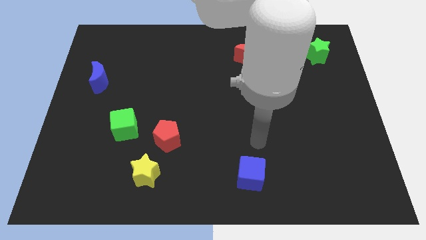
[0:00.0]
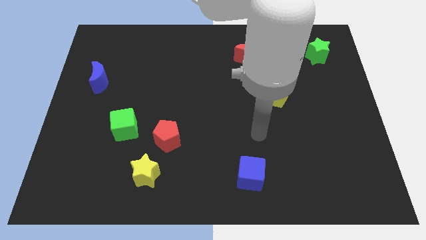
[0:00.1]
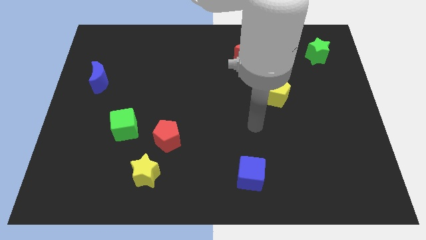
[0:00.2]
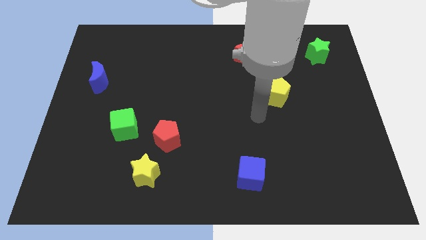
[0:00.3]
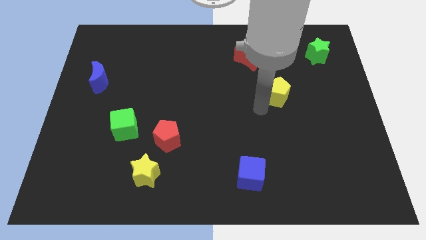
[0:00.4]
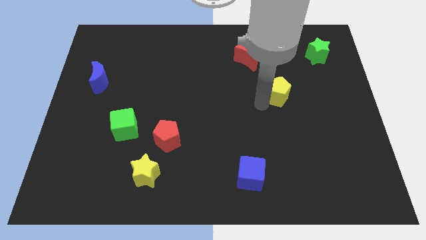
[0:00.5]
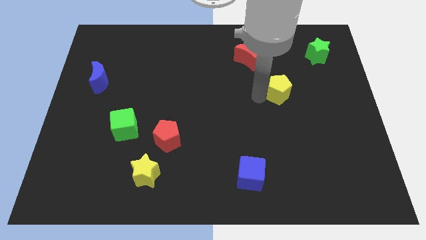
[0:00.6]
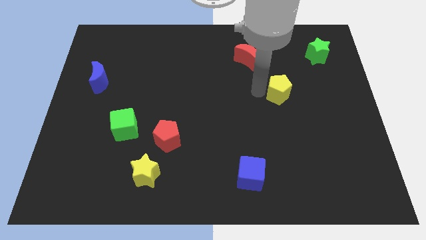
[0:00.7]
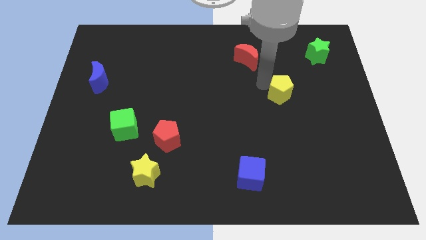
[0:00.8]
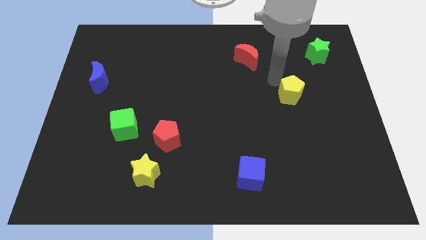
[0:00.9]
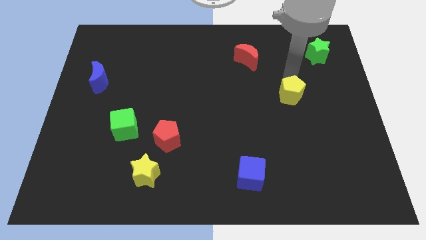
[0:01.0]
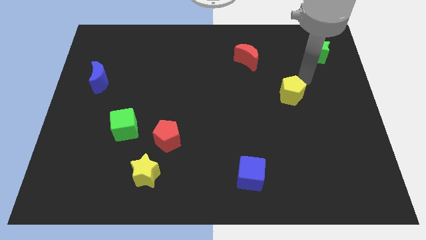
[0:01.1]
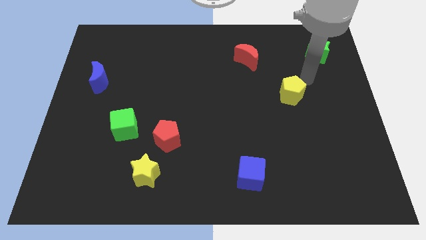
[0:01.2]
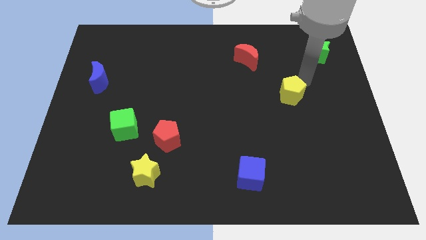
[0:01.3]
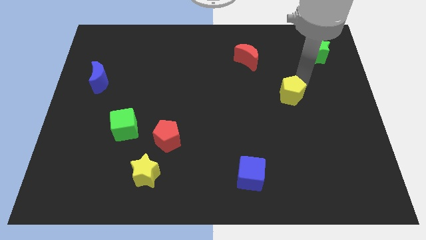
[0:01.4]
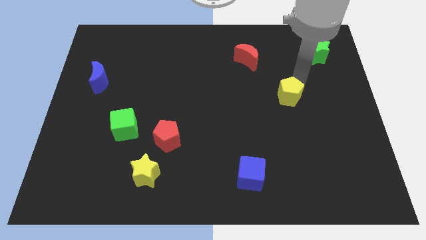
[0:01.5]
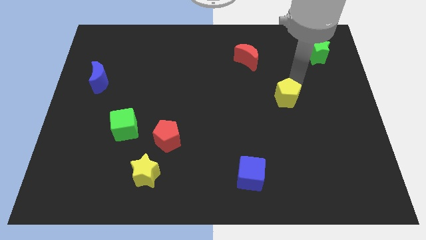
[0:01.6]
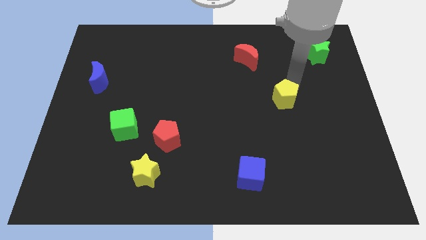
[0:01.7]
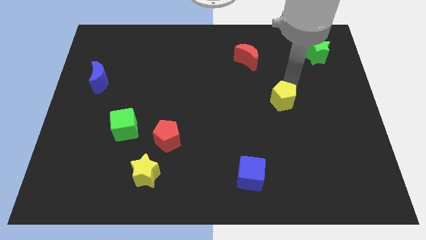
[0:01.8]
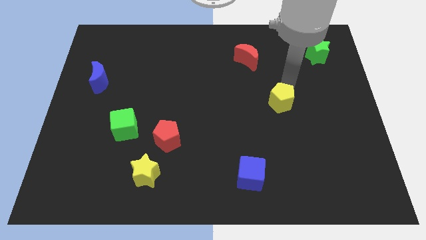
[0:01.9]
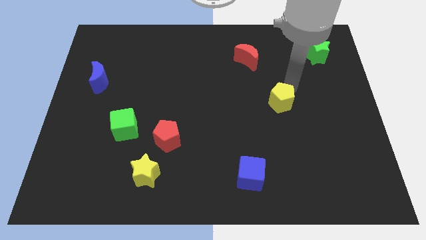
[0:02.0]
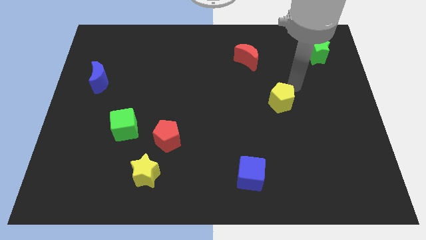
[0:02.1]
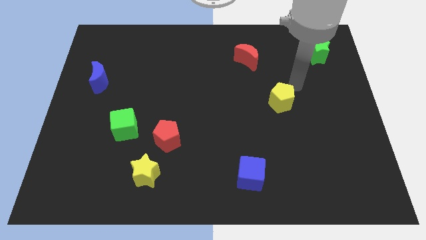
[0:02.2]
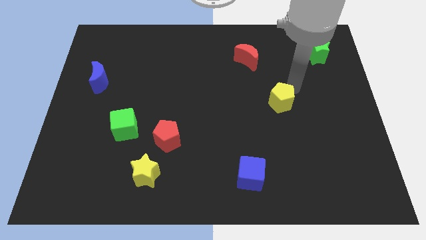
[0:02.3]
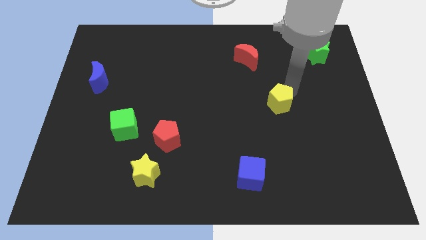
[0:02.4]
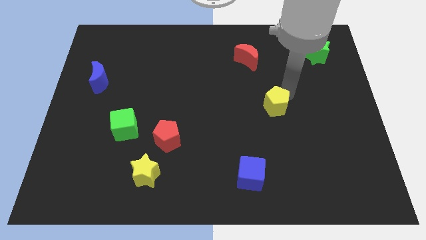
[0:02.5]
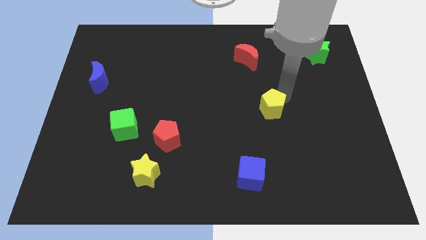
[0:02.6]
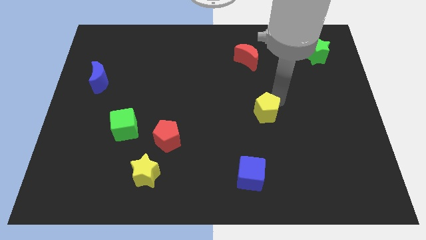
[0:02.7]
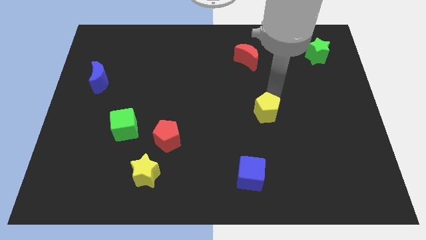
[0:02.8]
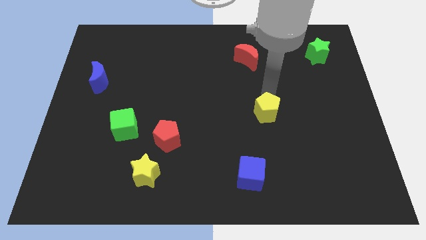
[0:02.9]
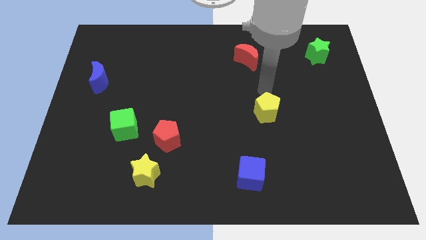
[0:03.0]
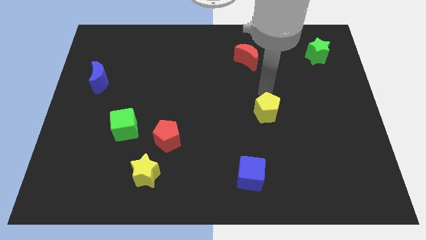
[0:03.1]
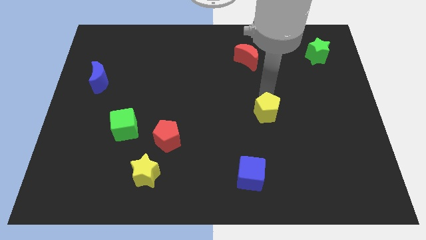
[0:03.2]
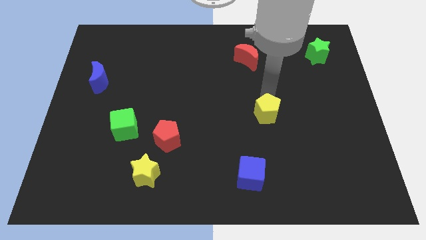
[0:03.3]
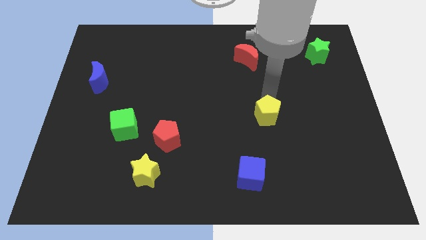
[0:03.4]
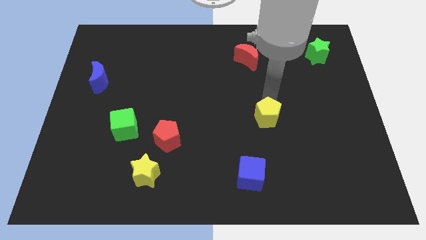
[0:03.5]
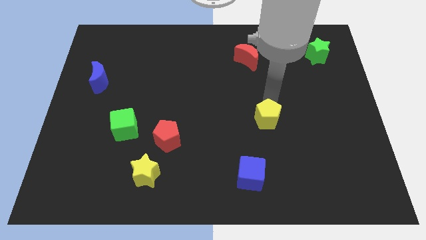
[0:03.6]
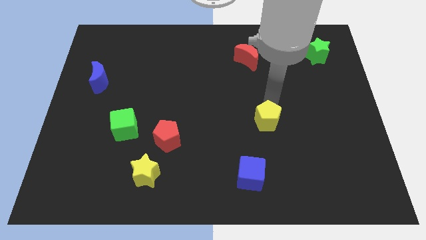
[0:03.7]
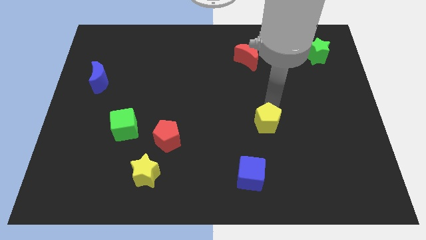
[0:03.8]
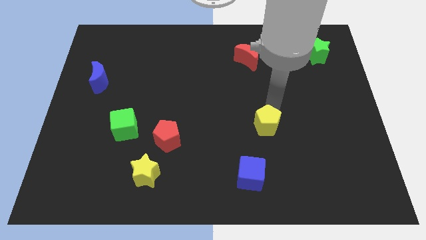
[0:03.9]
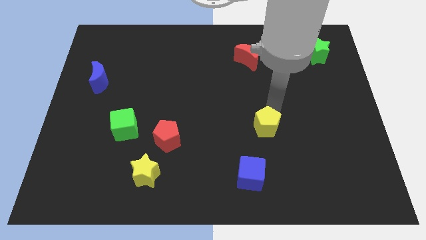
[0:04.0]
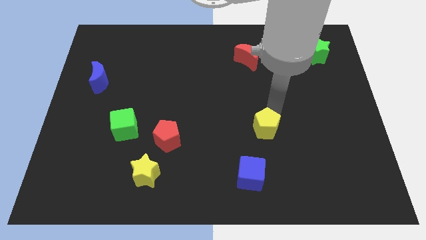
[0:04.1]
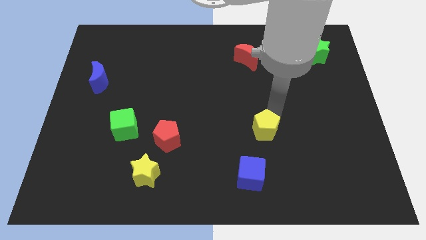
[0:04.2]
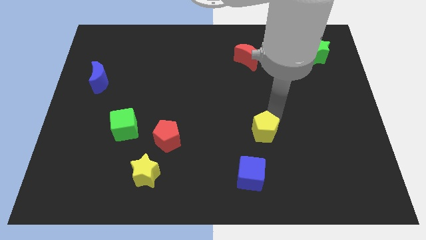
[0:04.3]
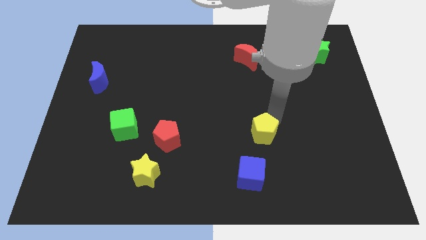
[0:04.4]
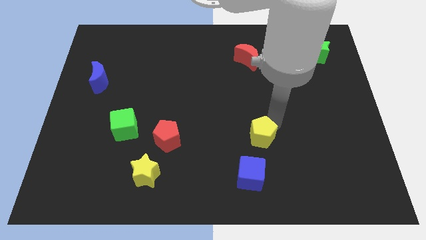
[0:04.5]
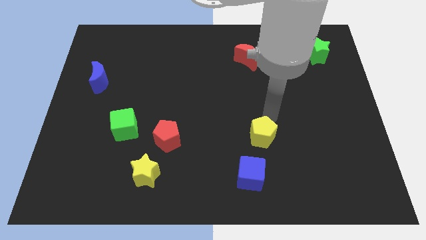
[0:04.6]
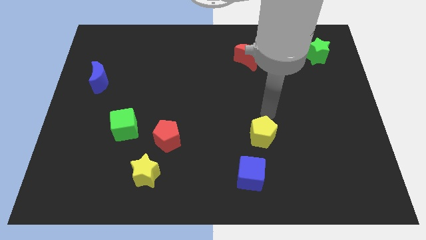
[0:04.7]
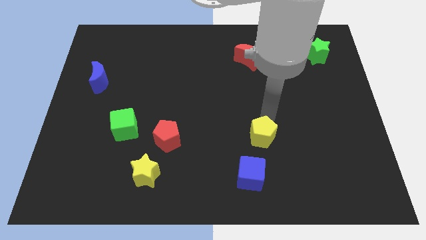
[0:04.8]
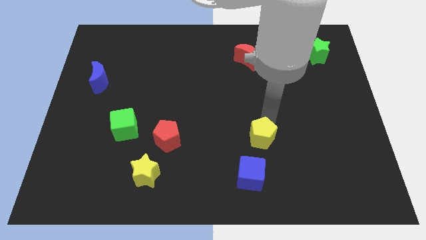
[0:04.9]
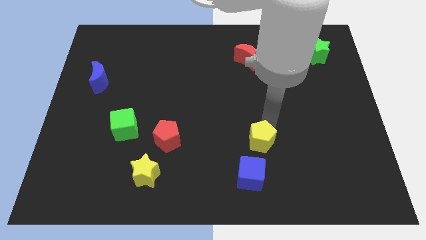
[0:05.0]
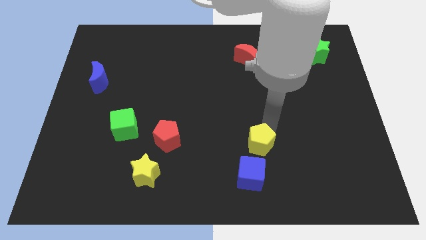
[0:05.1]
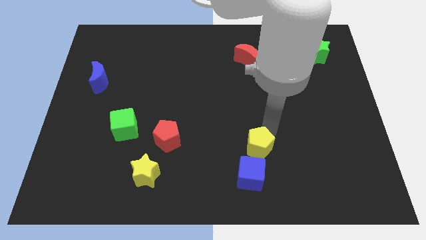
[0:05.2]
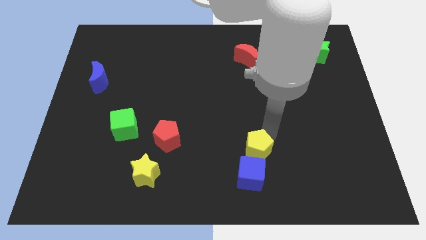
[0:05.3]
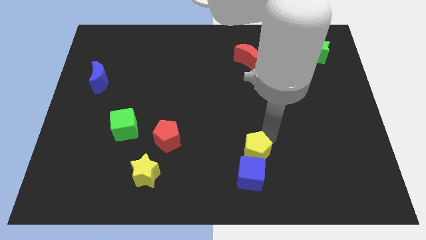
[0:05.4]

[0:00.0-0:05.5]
push the yellow pentagon to the blue cube

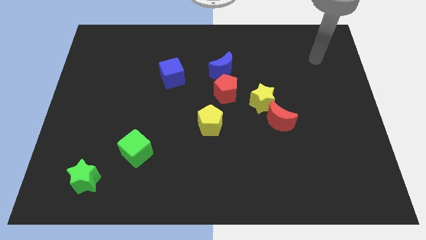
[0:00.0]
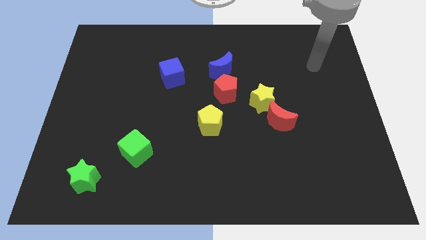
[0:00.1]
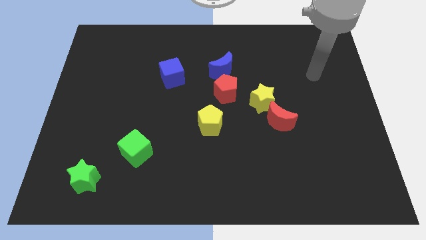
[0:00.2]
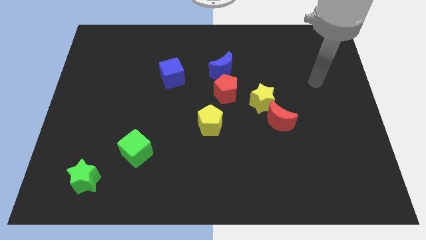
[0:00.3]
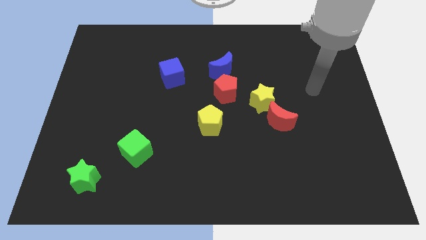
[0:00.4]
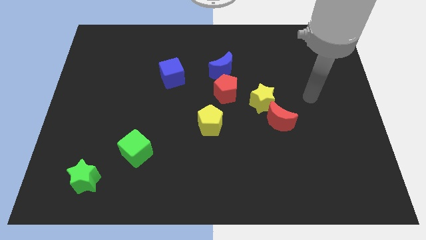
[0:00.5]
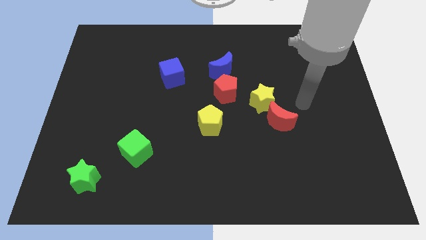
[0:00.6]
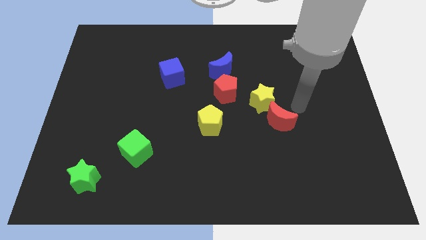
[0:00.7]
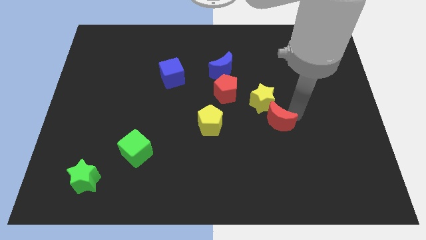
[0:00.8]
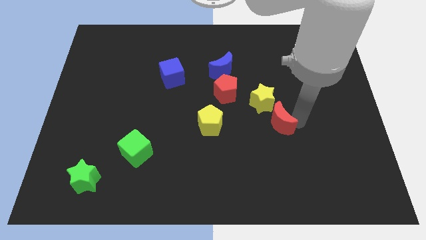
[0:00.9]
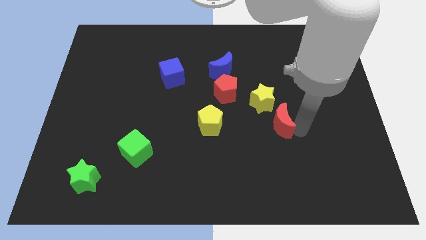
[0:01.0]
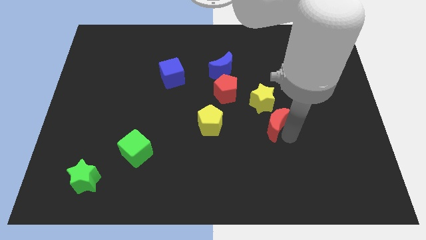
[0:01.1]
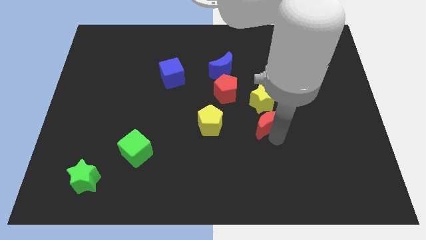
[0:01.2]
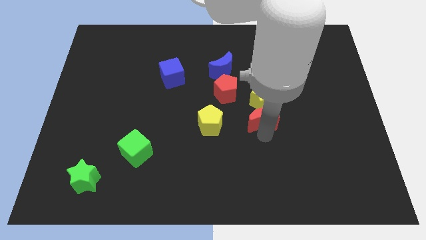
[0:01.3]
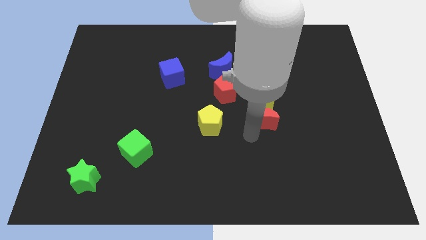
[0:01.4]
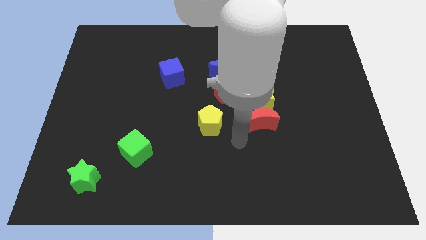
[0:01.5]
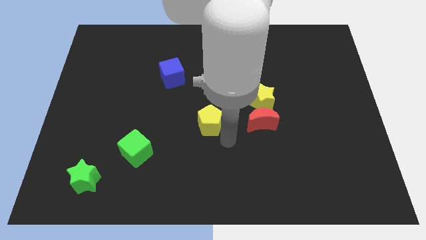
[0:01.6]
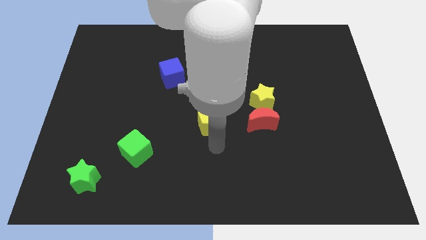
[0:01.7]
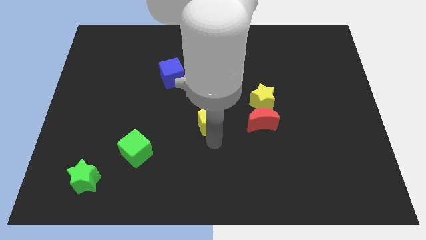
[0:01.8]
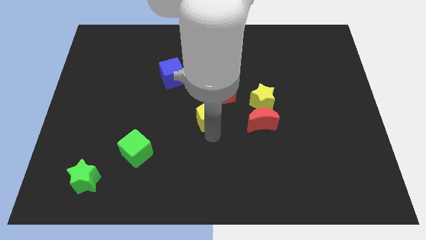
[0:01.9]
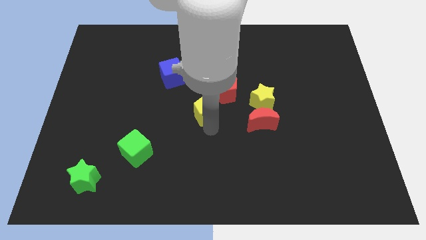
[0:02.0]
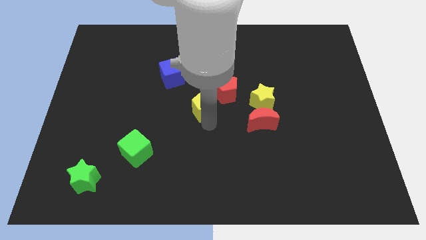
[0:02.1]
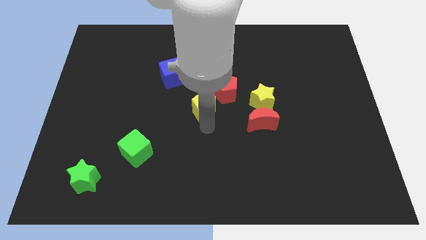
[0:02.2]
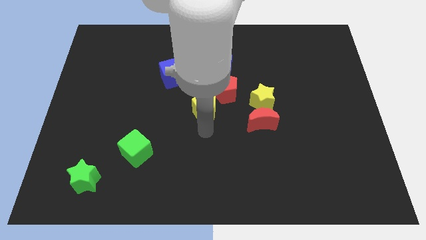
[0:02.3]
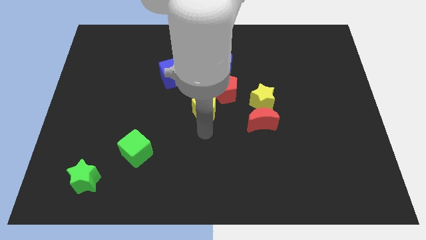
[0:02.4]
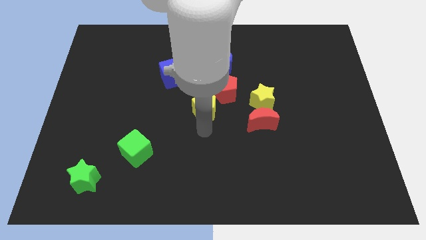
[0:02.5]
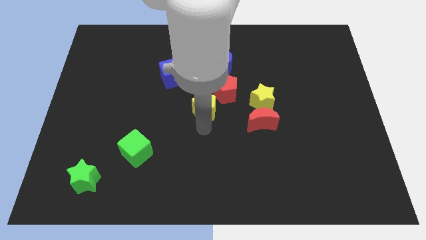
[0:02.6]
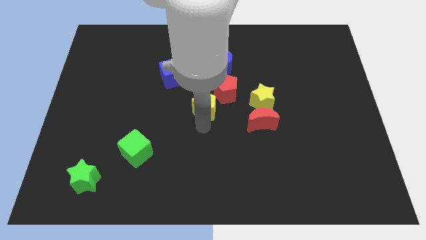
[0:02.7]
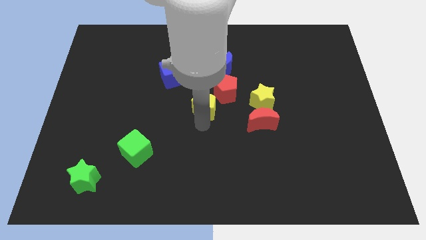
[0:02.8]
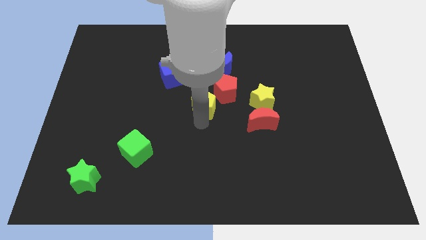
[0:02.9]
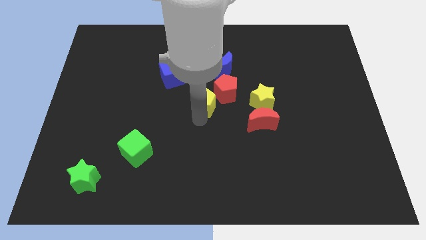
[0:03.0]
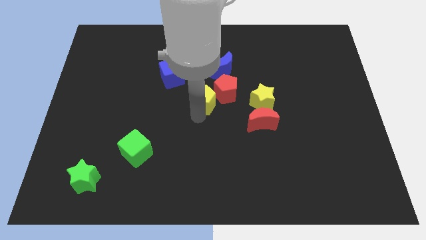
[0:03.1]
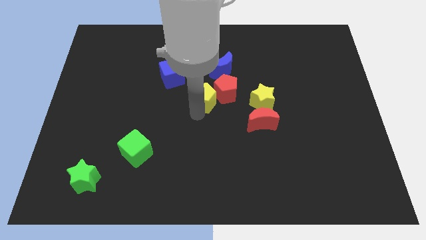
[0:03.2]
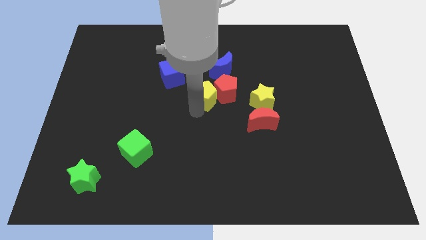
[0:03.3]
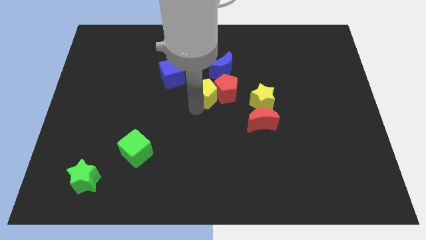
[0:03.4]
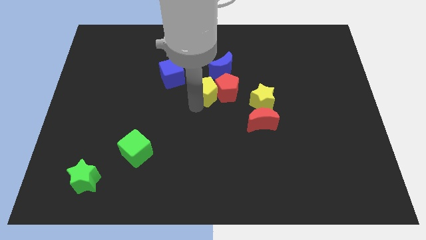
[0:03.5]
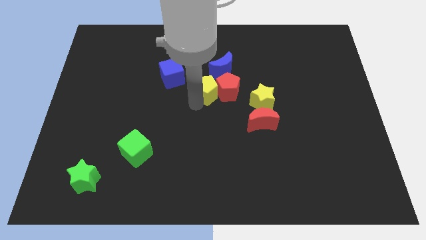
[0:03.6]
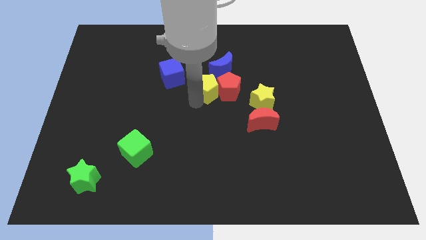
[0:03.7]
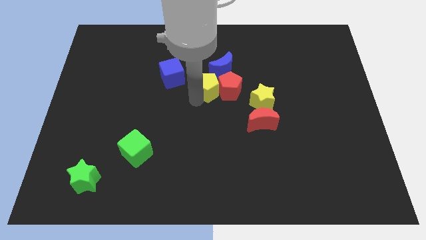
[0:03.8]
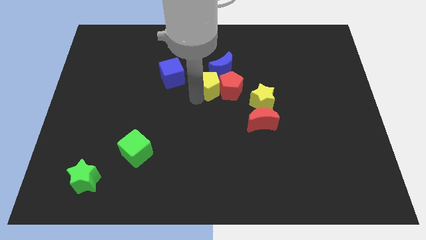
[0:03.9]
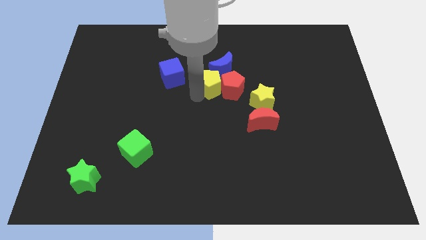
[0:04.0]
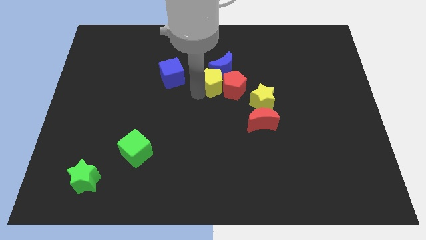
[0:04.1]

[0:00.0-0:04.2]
move the yellow pentagon close to the blue moon
